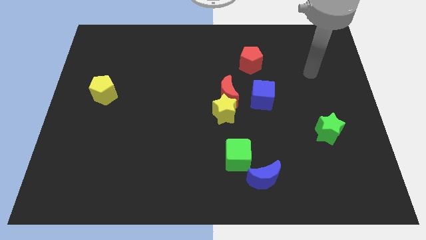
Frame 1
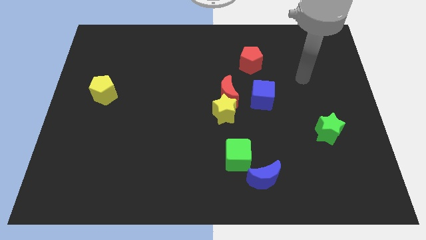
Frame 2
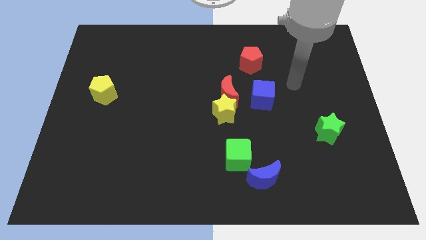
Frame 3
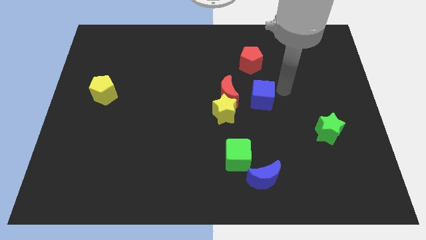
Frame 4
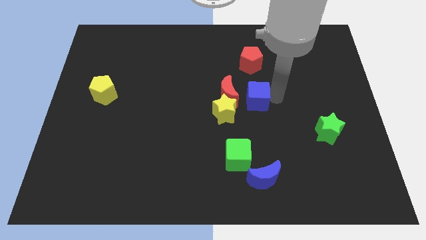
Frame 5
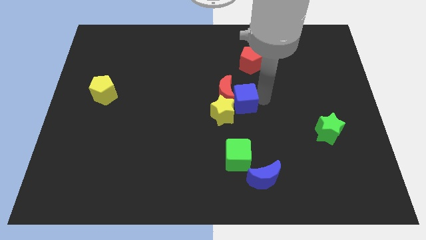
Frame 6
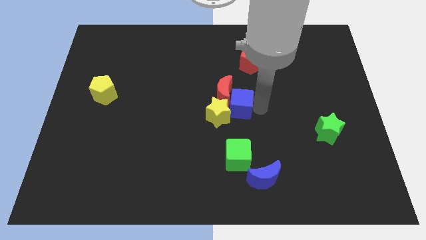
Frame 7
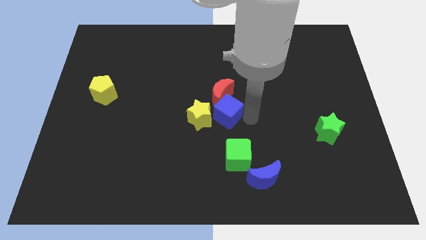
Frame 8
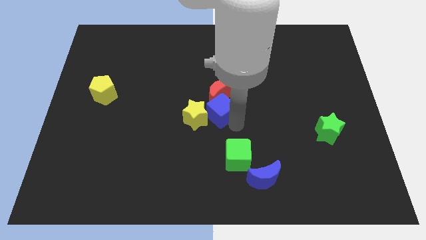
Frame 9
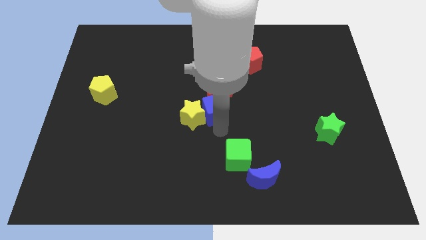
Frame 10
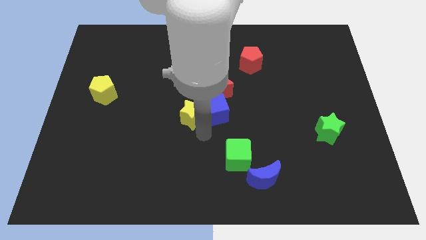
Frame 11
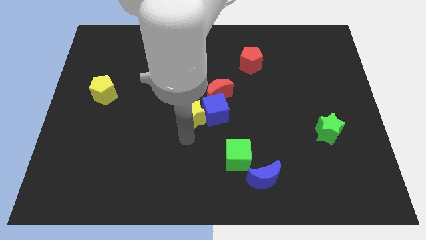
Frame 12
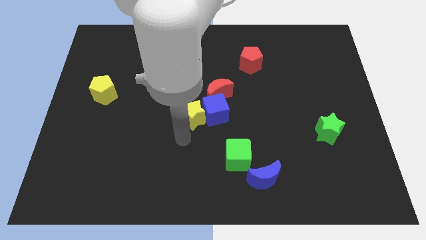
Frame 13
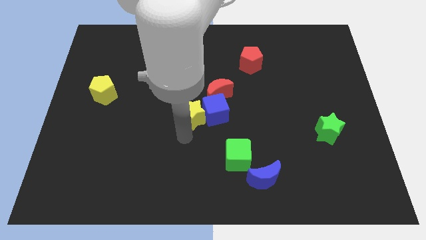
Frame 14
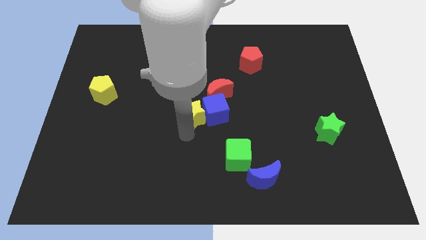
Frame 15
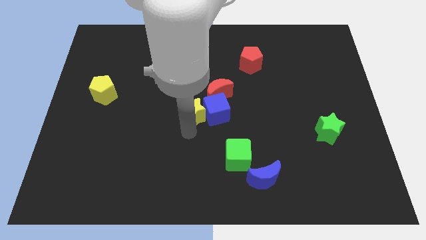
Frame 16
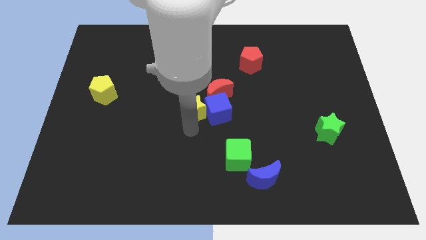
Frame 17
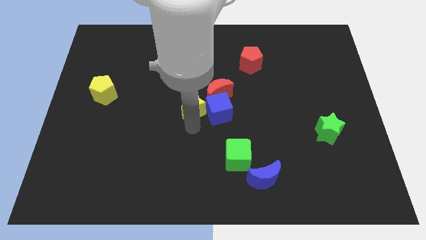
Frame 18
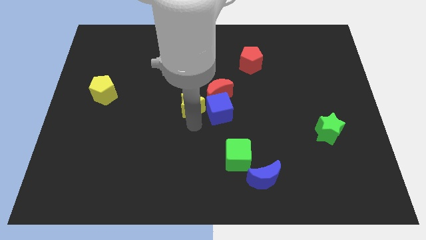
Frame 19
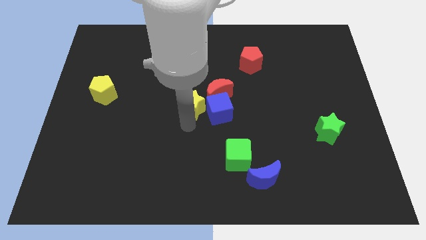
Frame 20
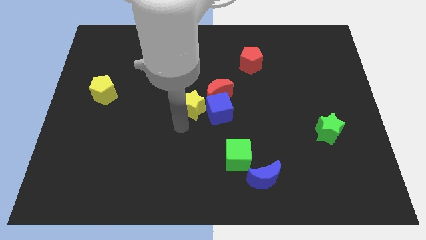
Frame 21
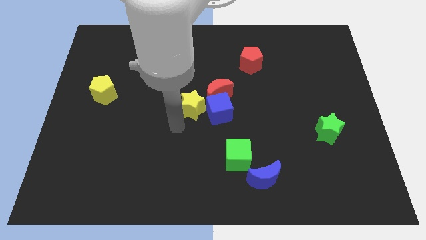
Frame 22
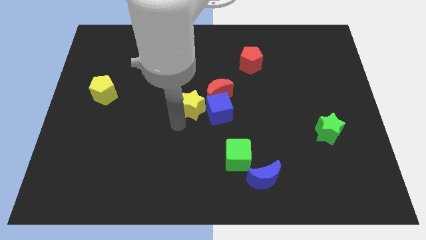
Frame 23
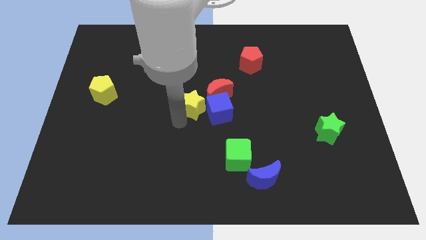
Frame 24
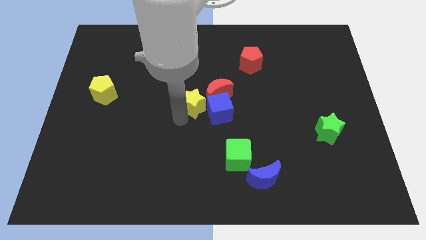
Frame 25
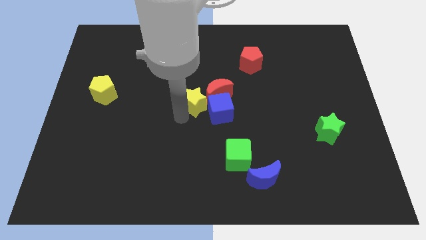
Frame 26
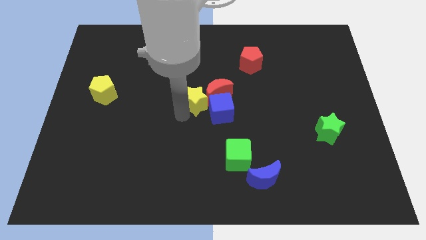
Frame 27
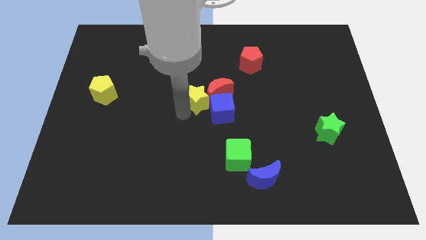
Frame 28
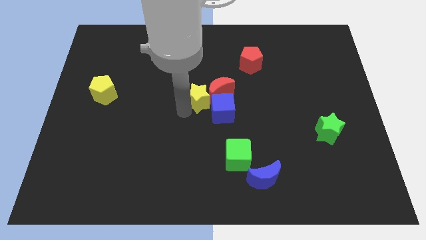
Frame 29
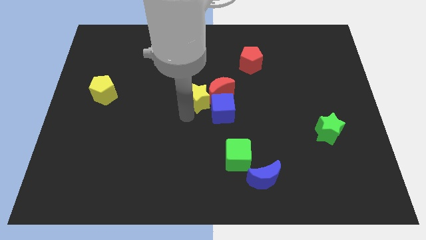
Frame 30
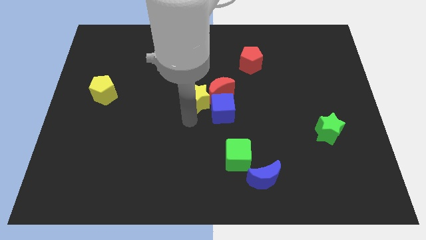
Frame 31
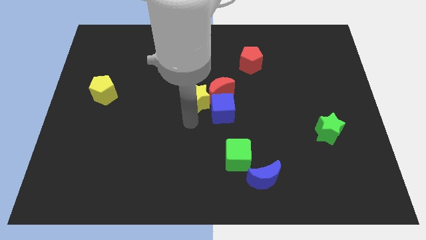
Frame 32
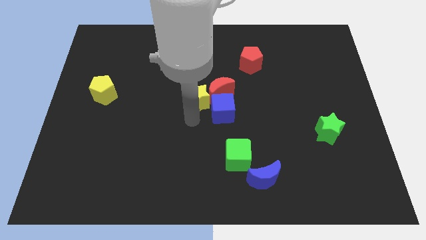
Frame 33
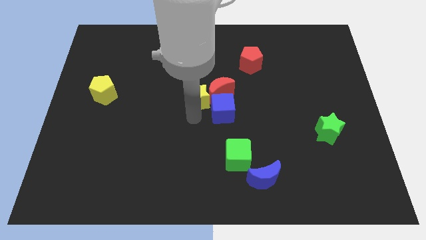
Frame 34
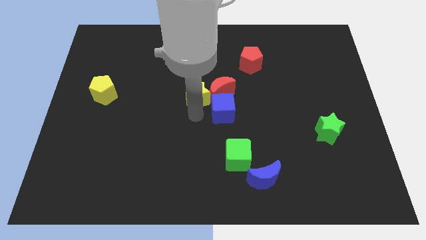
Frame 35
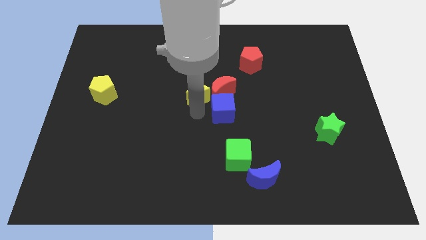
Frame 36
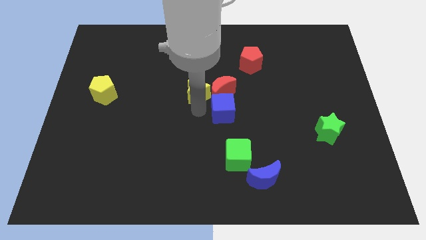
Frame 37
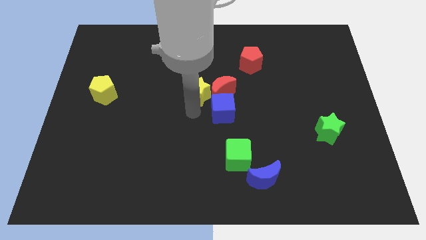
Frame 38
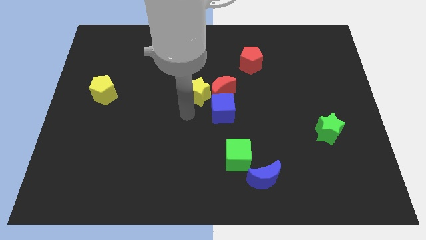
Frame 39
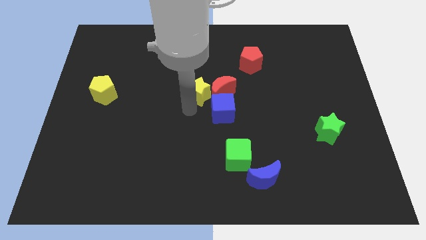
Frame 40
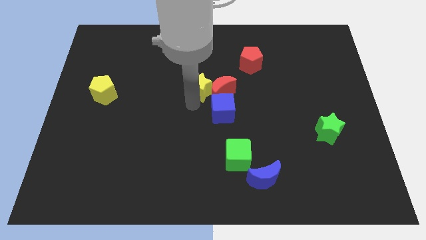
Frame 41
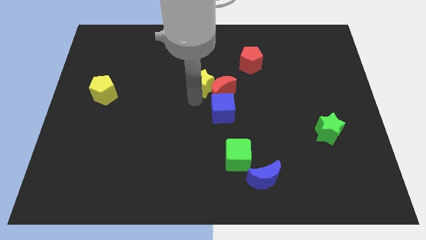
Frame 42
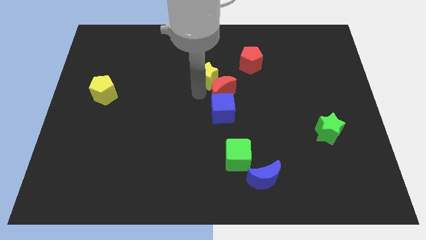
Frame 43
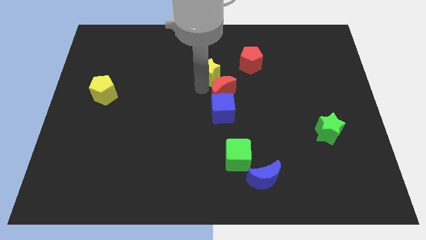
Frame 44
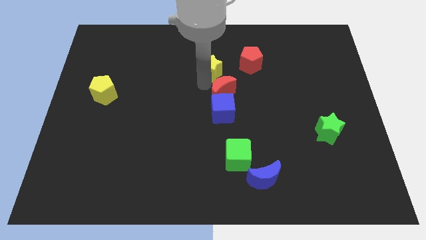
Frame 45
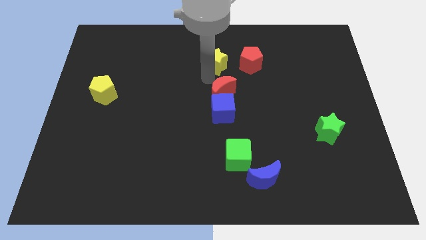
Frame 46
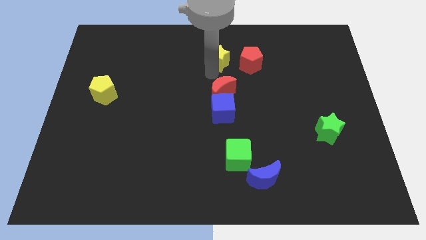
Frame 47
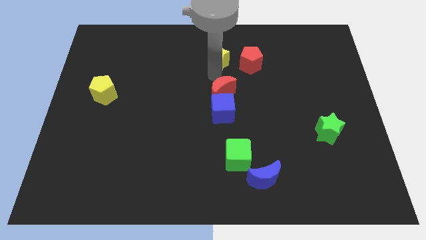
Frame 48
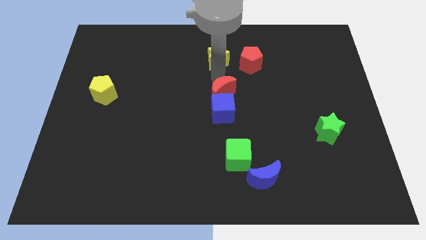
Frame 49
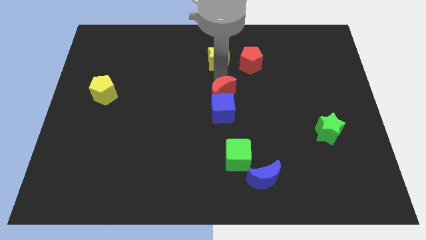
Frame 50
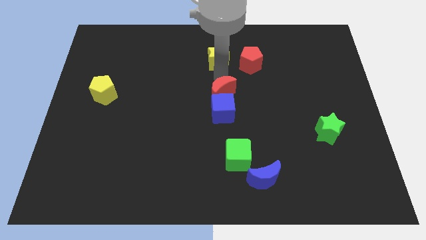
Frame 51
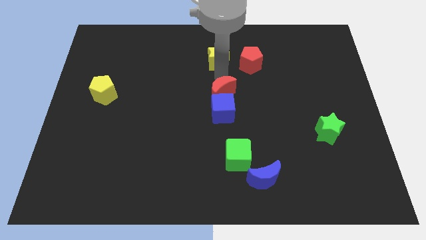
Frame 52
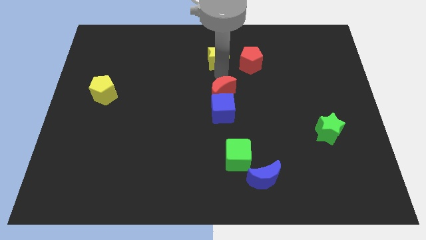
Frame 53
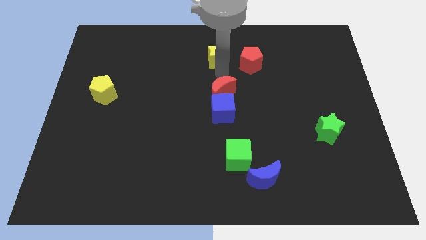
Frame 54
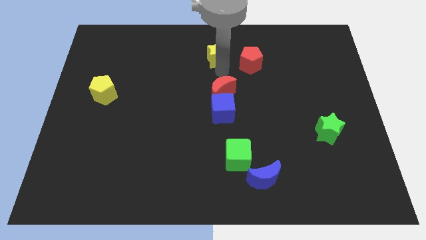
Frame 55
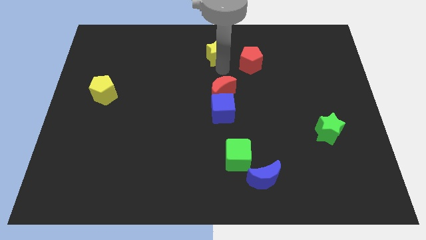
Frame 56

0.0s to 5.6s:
put the yellow star to the top side

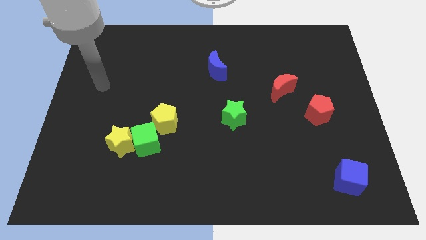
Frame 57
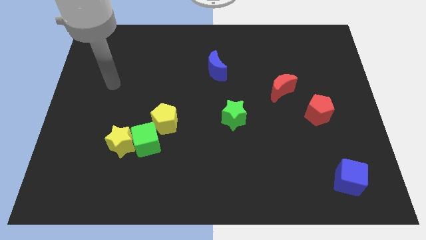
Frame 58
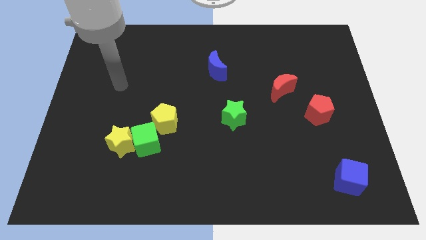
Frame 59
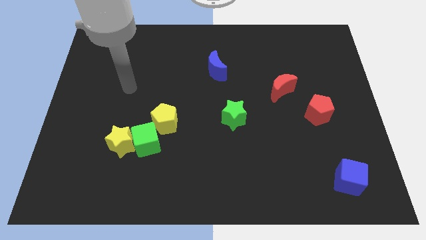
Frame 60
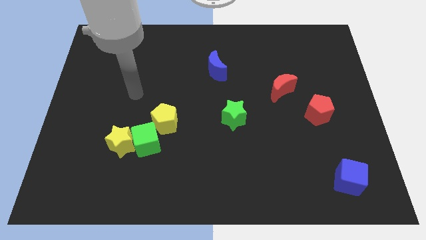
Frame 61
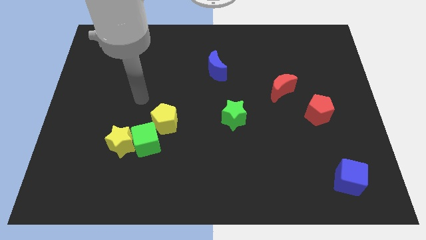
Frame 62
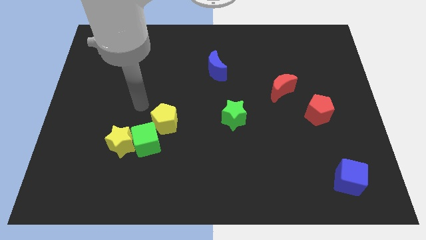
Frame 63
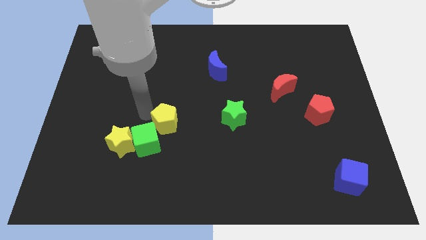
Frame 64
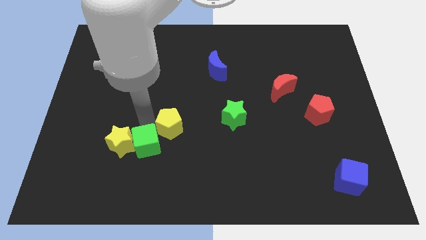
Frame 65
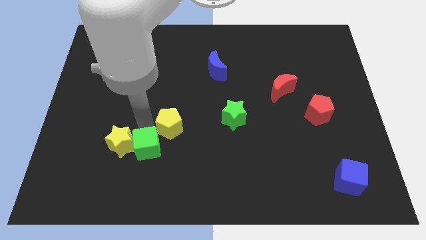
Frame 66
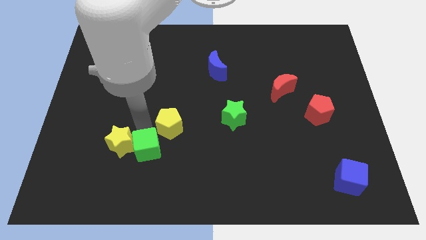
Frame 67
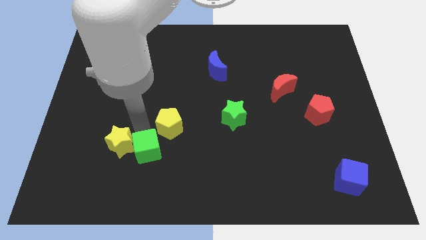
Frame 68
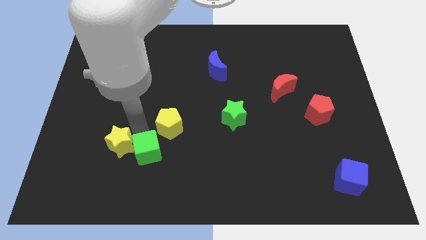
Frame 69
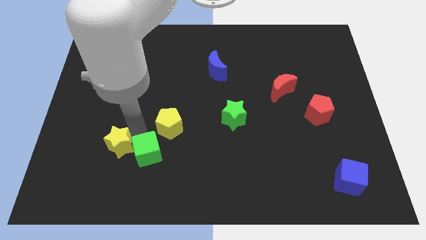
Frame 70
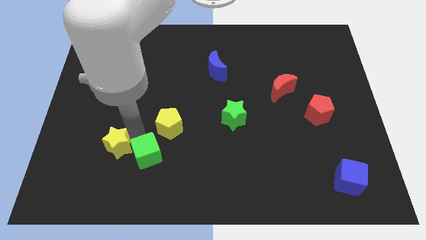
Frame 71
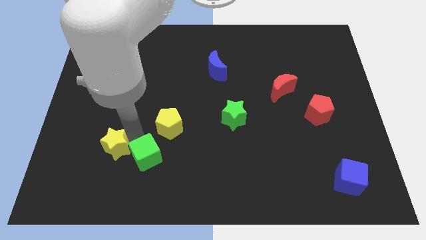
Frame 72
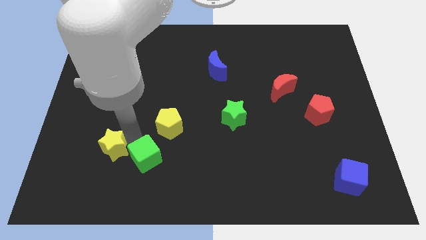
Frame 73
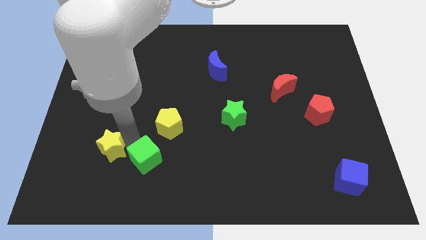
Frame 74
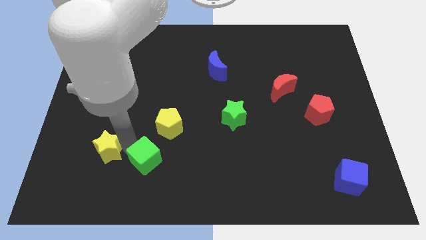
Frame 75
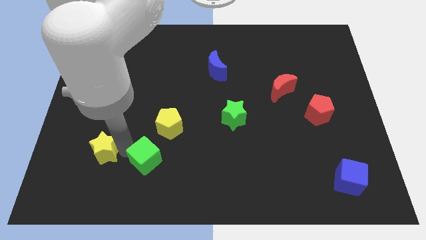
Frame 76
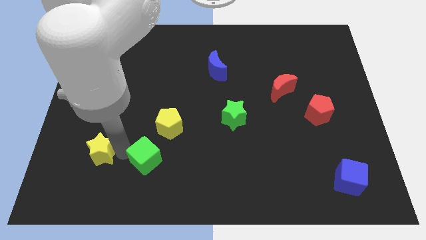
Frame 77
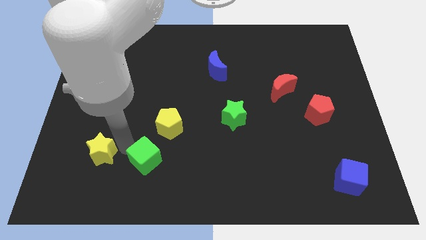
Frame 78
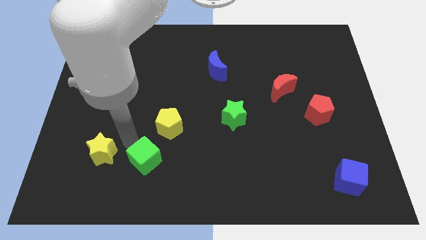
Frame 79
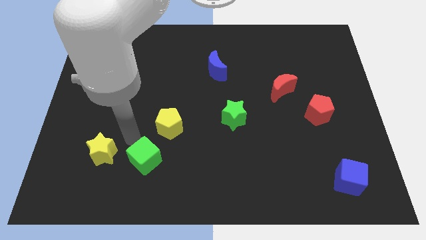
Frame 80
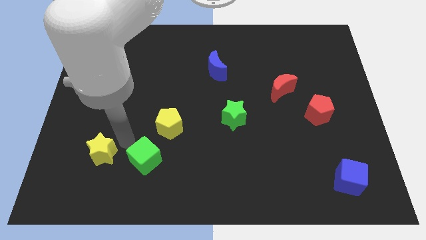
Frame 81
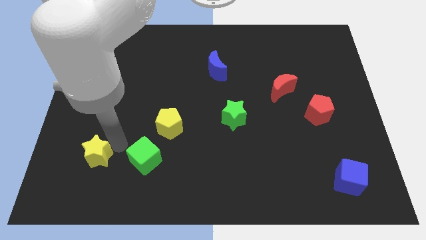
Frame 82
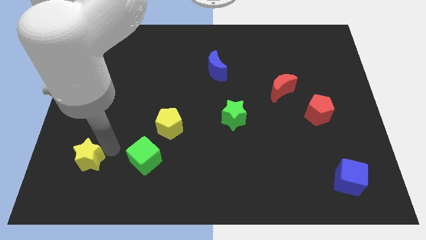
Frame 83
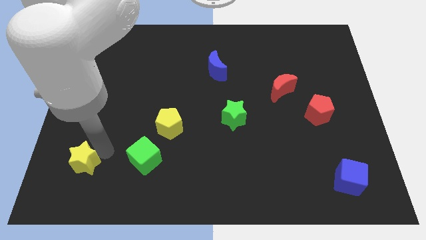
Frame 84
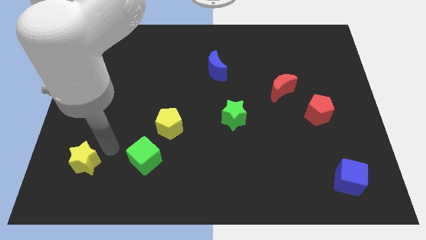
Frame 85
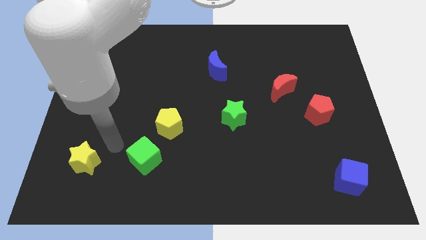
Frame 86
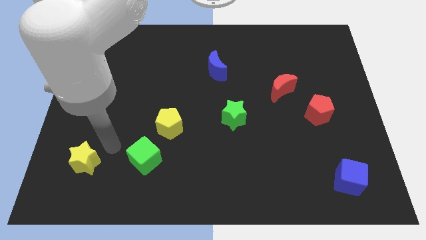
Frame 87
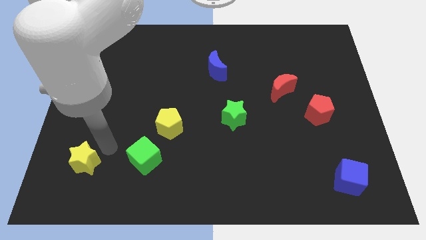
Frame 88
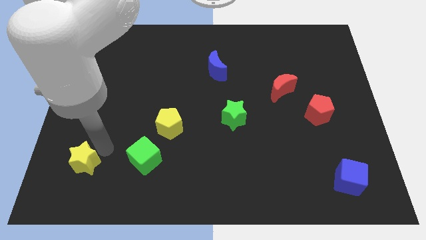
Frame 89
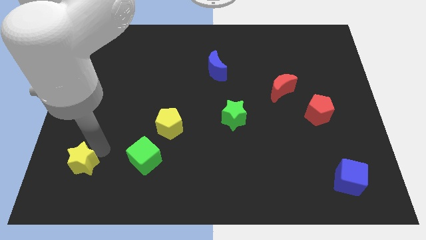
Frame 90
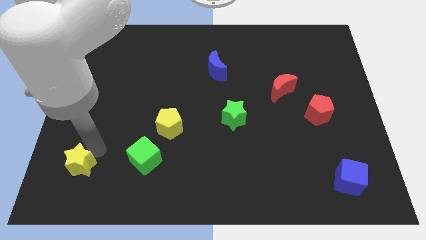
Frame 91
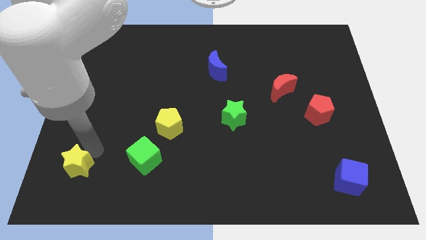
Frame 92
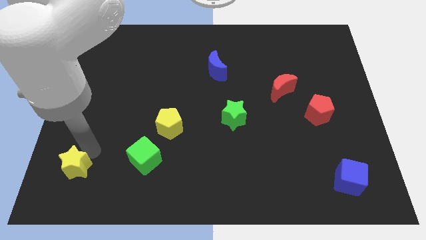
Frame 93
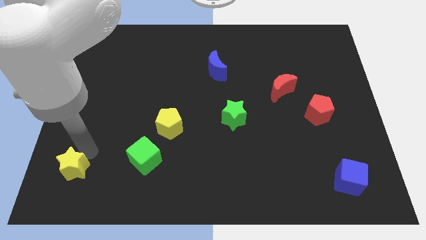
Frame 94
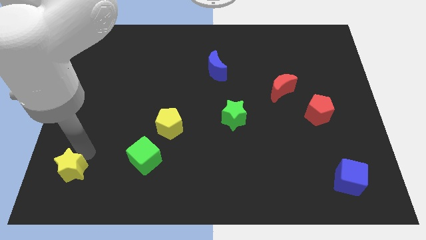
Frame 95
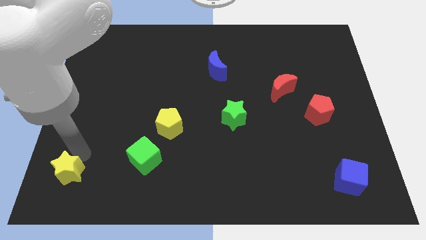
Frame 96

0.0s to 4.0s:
put the yellow star to the bottom left of the board
